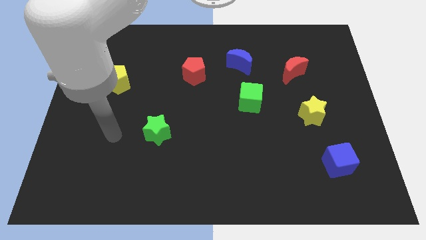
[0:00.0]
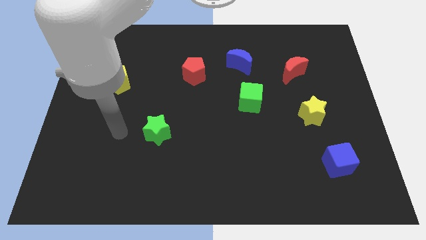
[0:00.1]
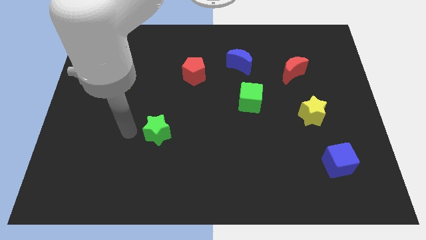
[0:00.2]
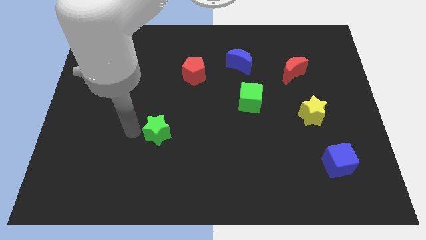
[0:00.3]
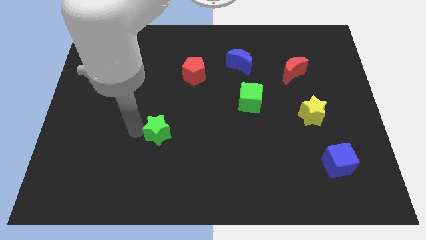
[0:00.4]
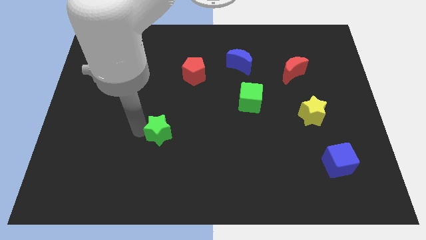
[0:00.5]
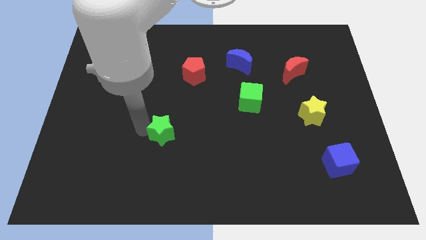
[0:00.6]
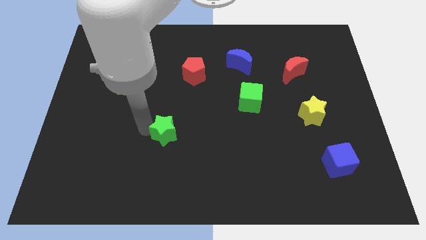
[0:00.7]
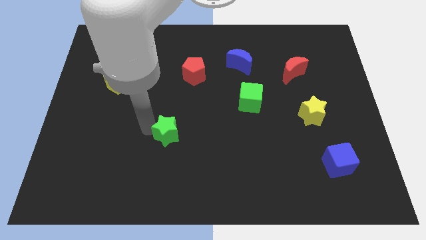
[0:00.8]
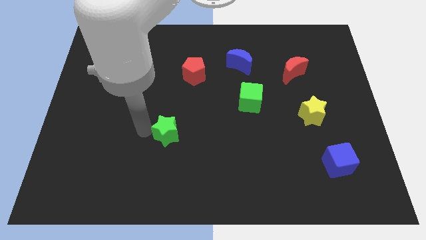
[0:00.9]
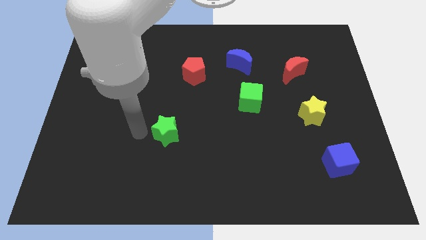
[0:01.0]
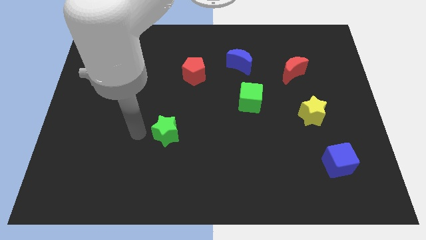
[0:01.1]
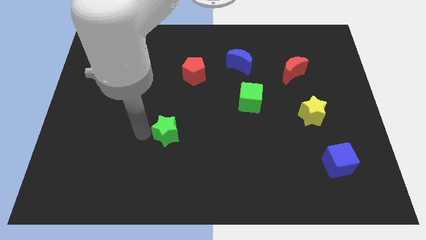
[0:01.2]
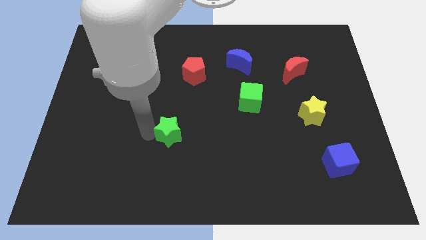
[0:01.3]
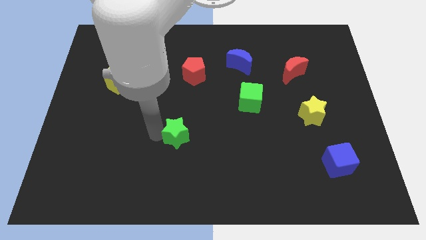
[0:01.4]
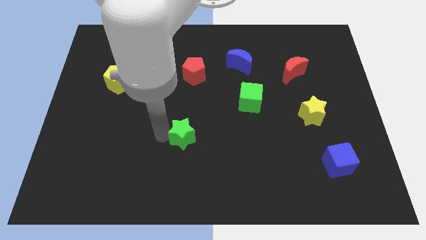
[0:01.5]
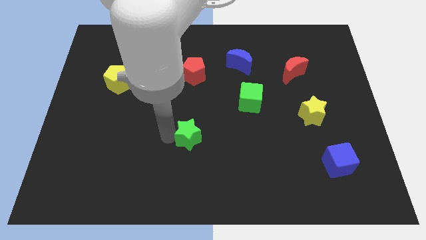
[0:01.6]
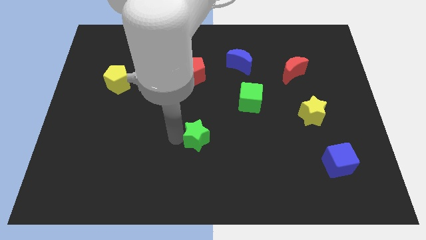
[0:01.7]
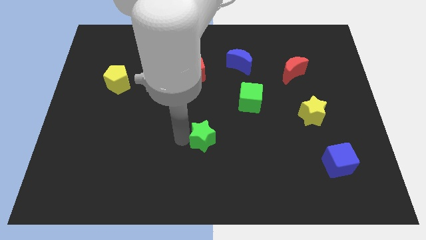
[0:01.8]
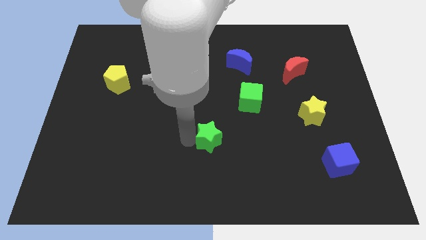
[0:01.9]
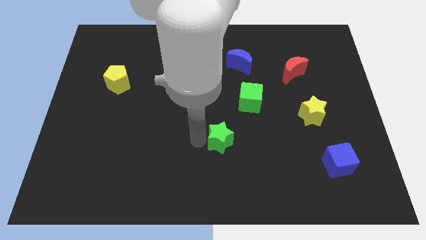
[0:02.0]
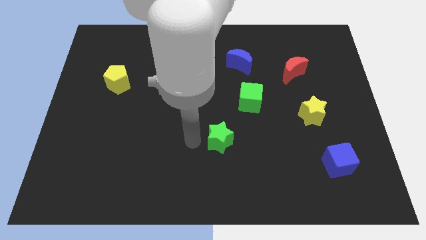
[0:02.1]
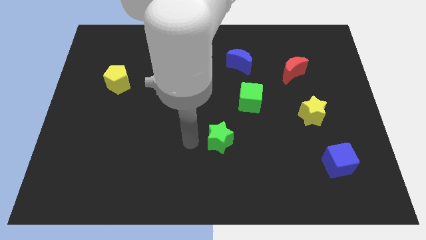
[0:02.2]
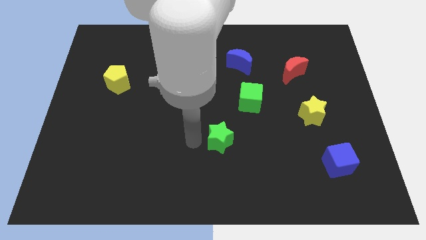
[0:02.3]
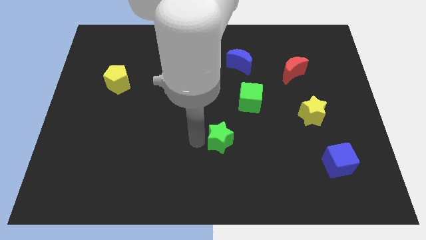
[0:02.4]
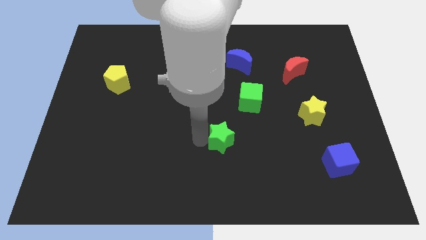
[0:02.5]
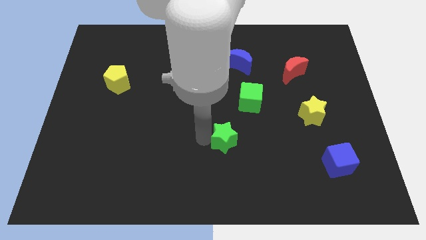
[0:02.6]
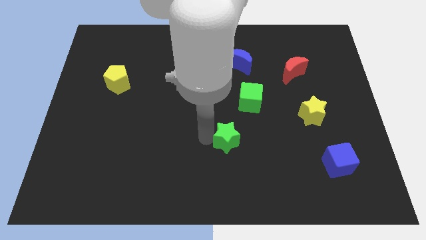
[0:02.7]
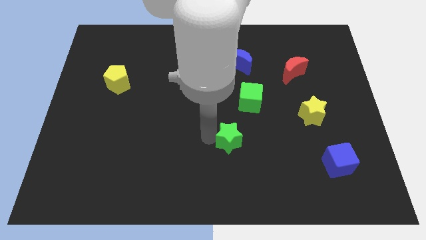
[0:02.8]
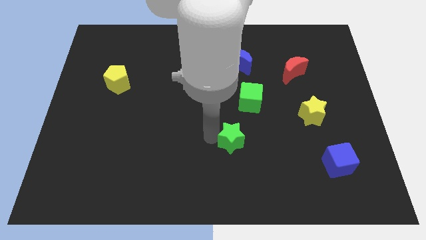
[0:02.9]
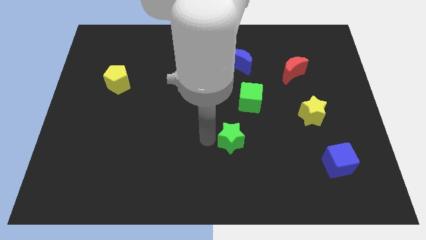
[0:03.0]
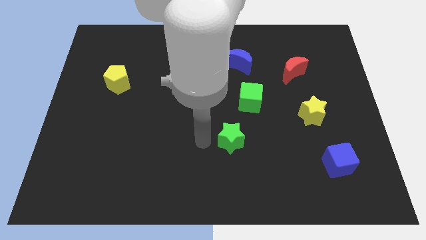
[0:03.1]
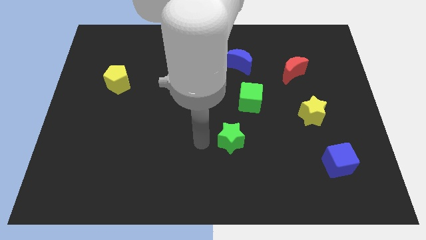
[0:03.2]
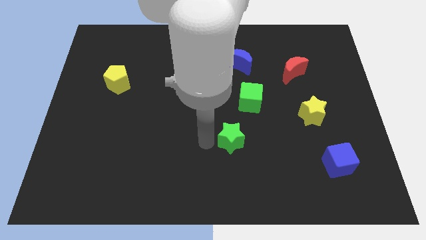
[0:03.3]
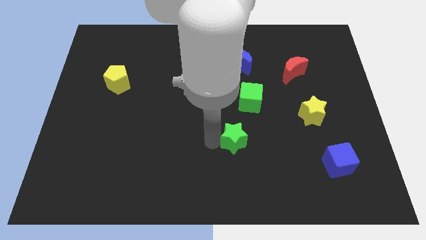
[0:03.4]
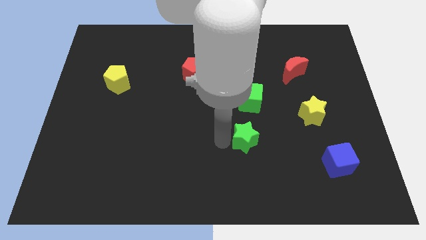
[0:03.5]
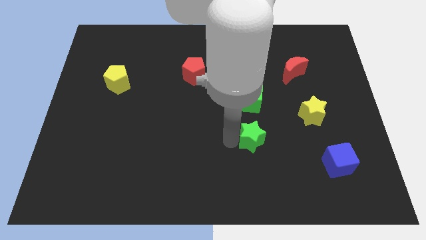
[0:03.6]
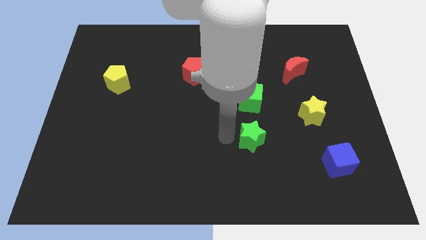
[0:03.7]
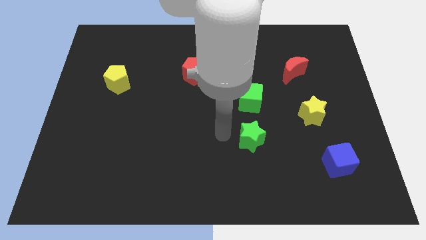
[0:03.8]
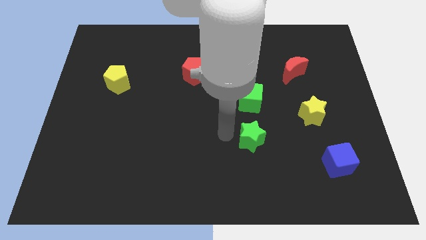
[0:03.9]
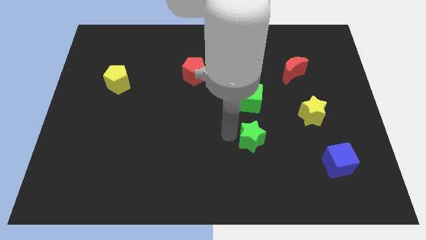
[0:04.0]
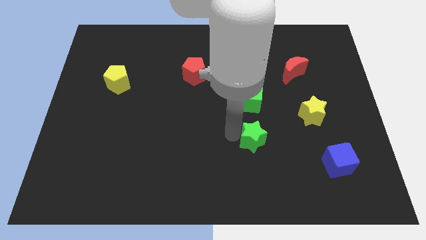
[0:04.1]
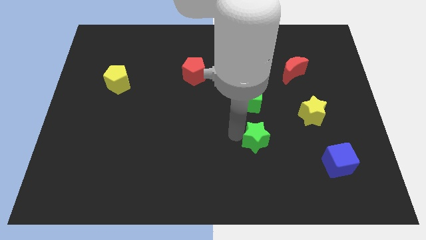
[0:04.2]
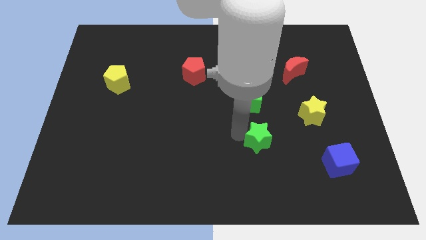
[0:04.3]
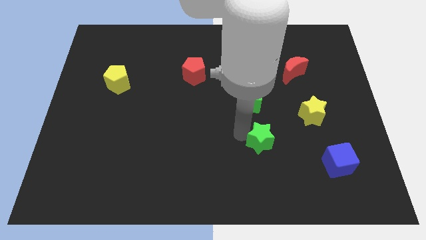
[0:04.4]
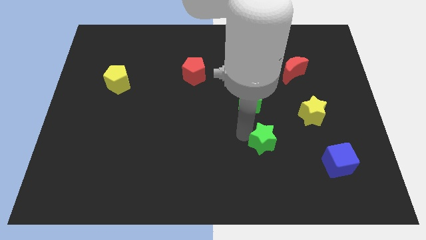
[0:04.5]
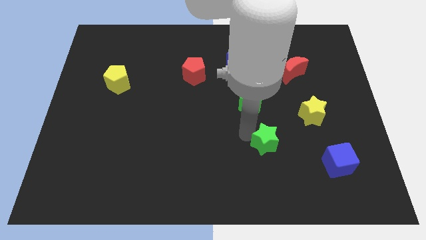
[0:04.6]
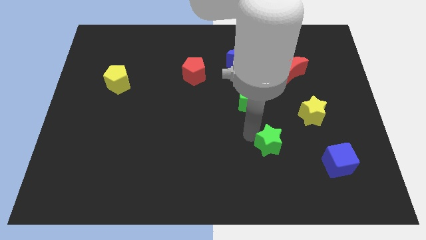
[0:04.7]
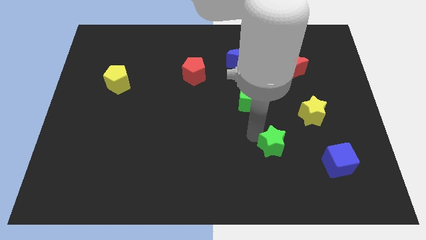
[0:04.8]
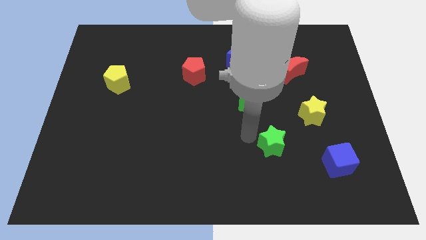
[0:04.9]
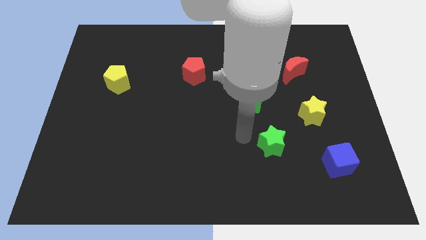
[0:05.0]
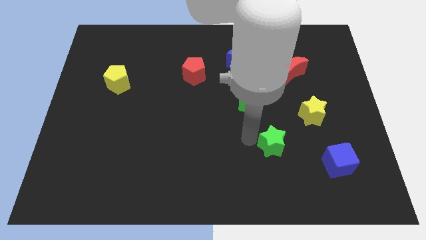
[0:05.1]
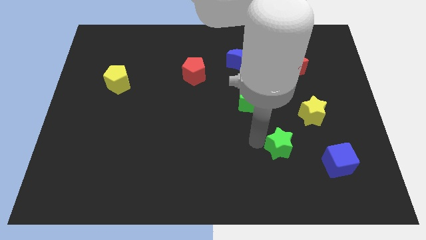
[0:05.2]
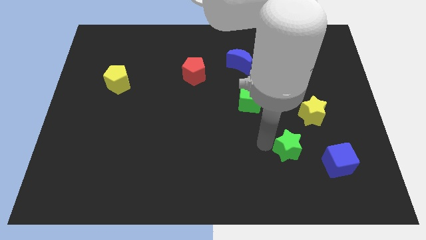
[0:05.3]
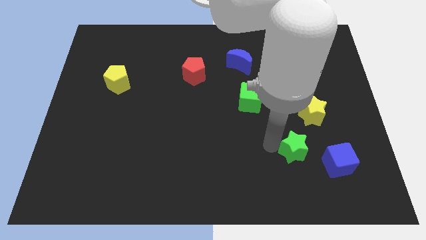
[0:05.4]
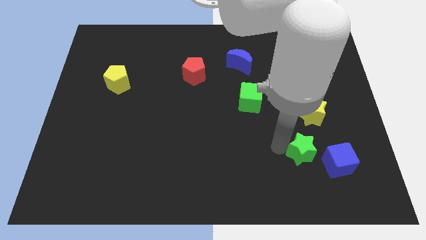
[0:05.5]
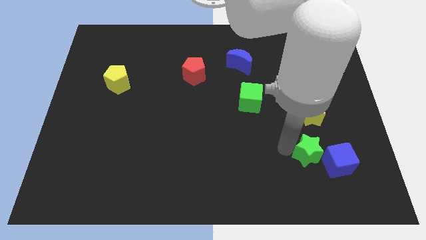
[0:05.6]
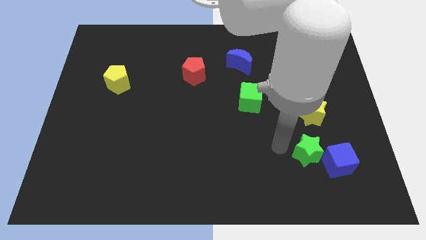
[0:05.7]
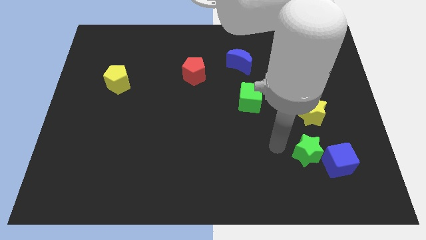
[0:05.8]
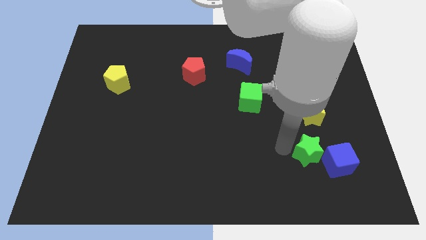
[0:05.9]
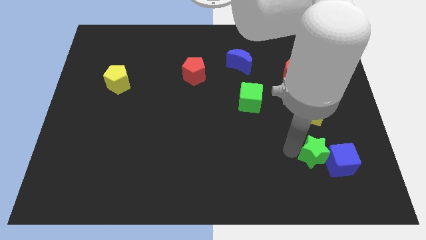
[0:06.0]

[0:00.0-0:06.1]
move the green star close to the blue cube
